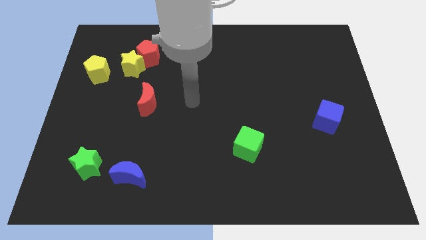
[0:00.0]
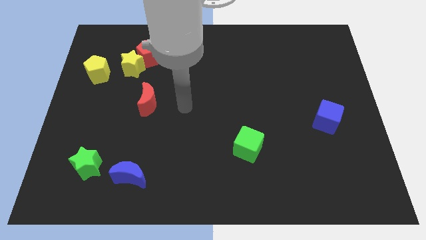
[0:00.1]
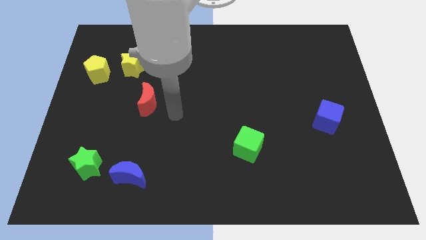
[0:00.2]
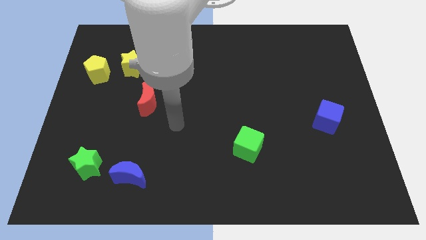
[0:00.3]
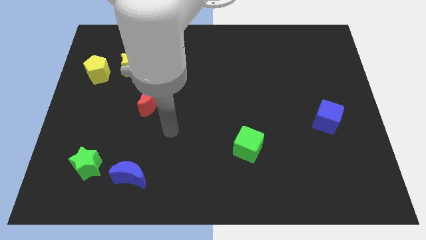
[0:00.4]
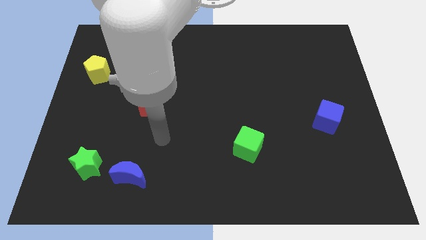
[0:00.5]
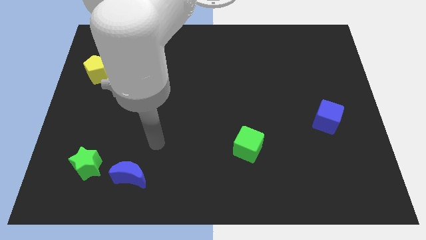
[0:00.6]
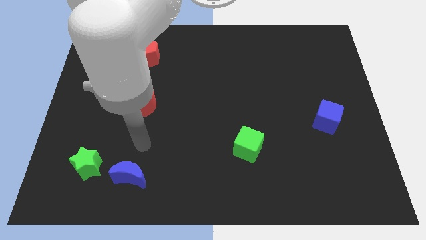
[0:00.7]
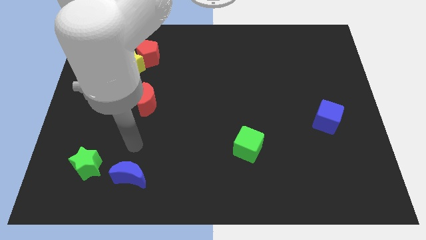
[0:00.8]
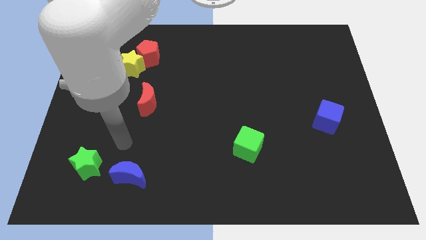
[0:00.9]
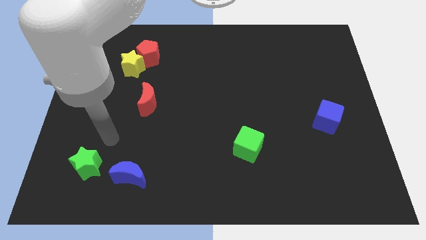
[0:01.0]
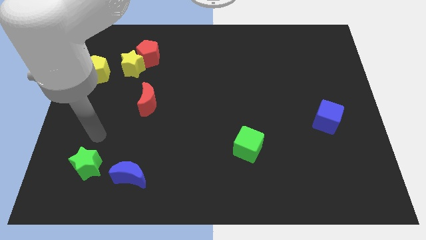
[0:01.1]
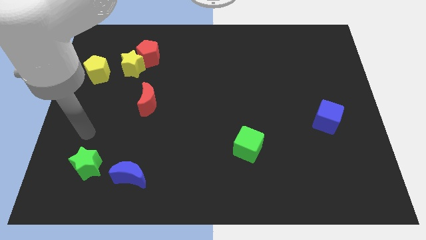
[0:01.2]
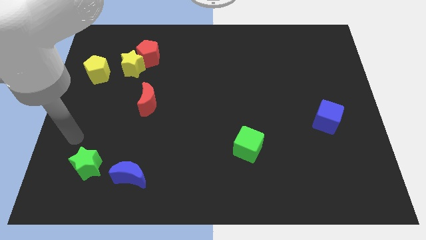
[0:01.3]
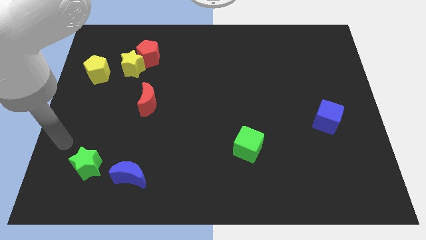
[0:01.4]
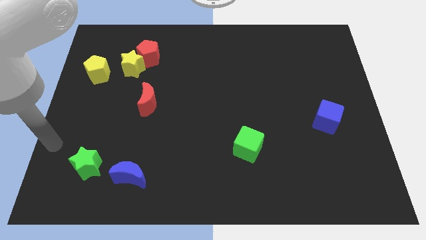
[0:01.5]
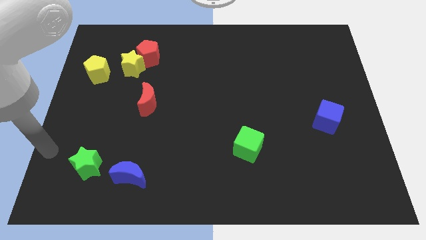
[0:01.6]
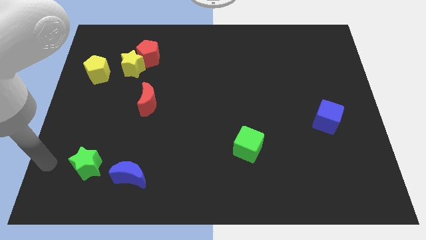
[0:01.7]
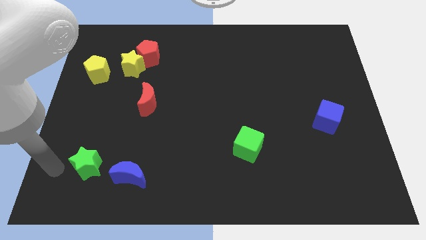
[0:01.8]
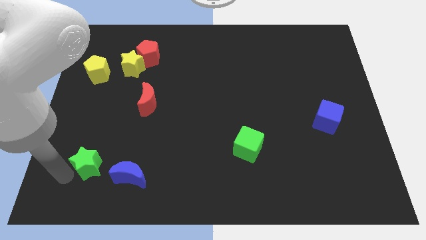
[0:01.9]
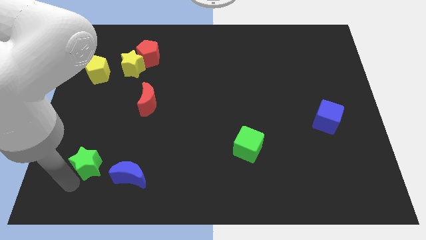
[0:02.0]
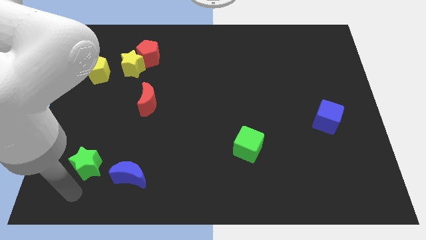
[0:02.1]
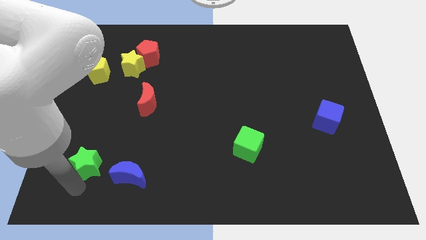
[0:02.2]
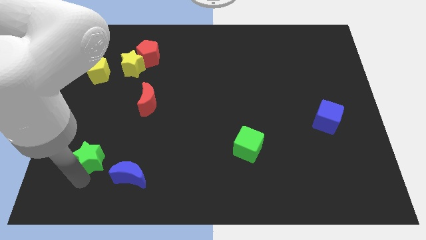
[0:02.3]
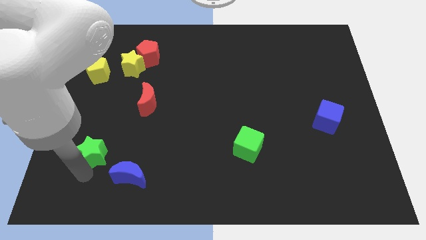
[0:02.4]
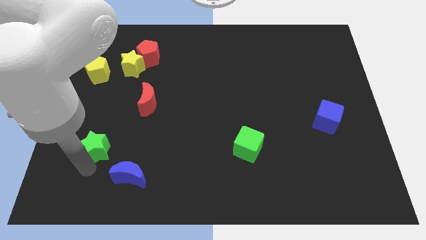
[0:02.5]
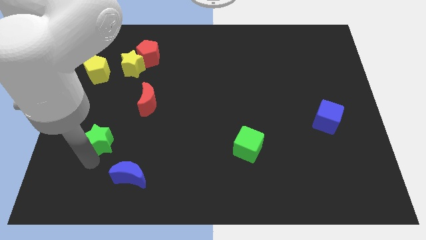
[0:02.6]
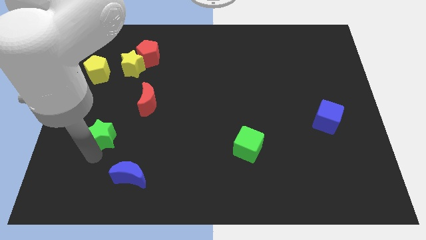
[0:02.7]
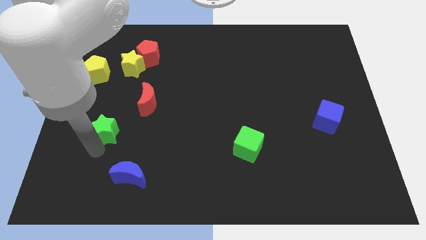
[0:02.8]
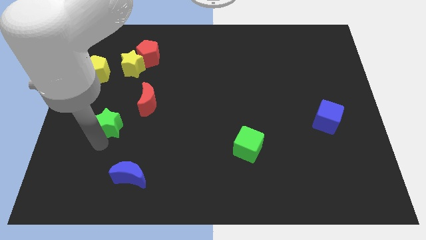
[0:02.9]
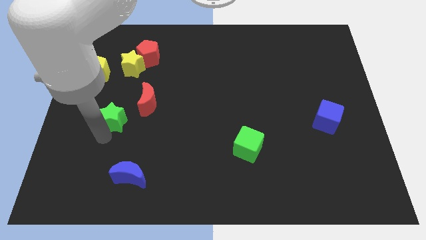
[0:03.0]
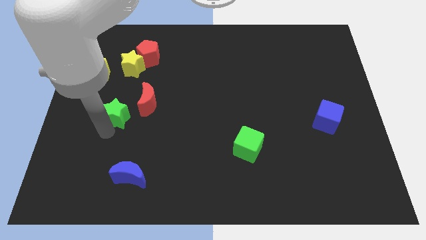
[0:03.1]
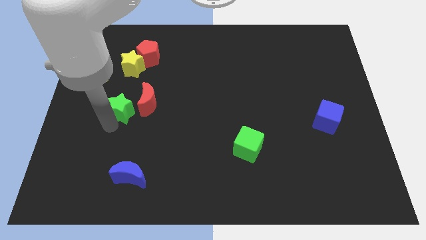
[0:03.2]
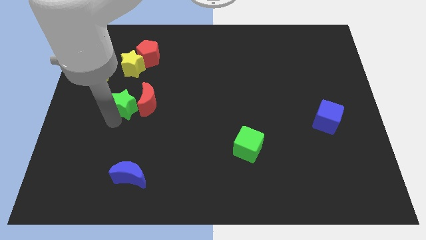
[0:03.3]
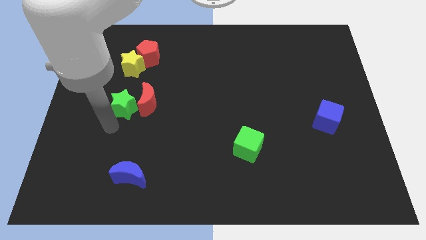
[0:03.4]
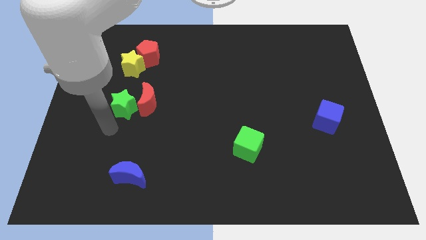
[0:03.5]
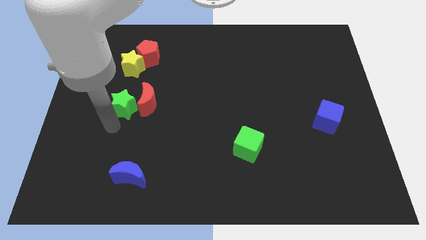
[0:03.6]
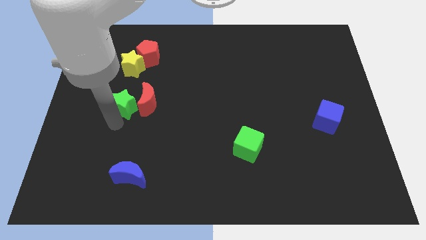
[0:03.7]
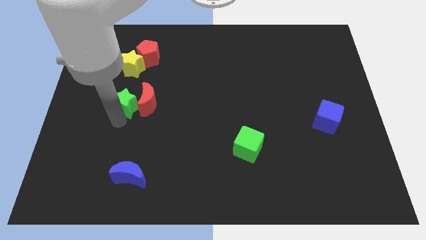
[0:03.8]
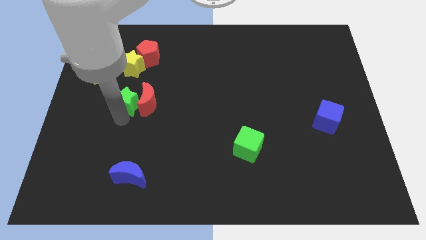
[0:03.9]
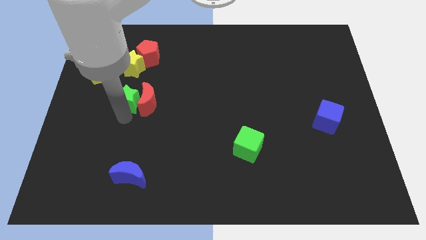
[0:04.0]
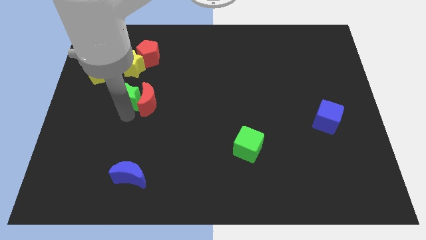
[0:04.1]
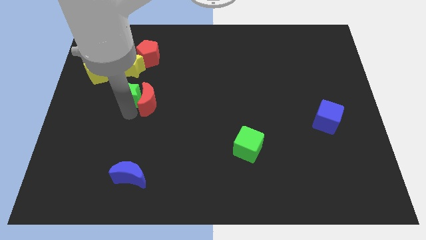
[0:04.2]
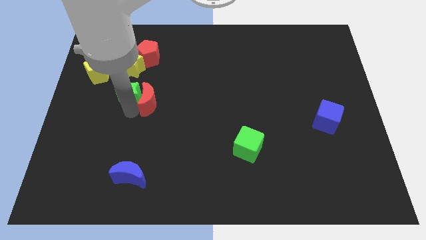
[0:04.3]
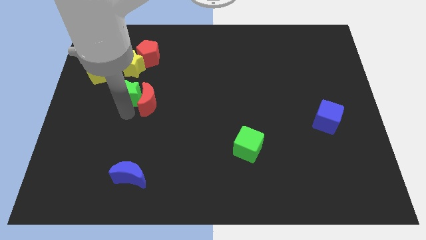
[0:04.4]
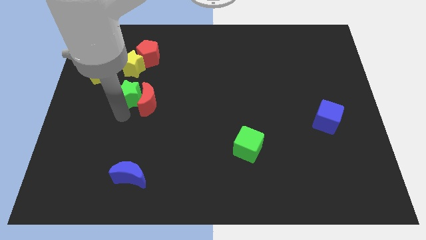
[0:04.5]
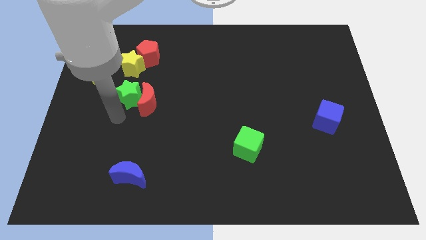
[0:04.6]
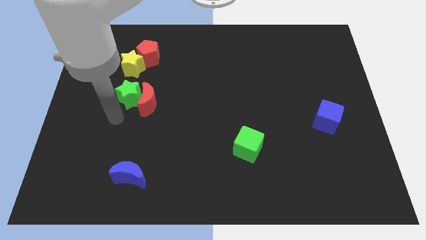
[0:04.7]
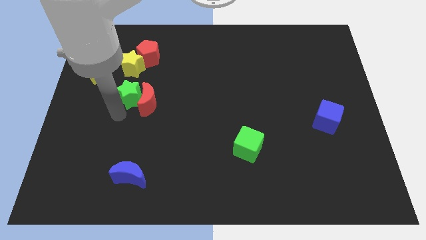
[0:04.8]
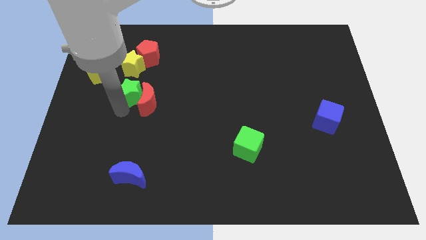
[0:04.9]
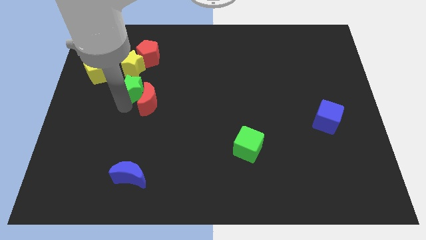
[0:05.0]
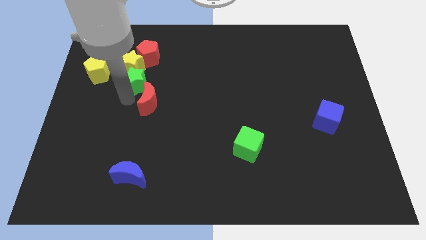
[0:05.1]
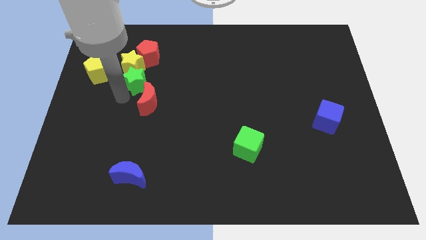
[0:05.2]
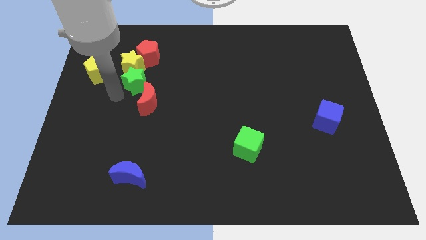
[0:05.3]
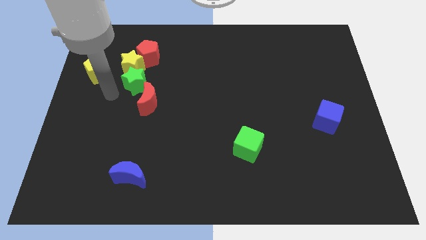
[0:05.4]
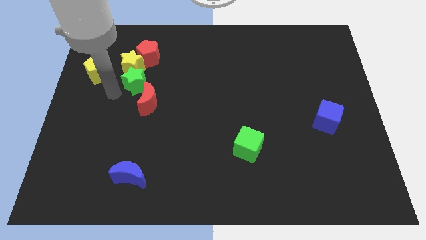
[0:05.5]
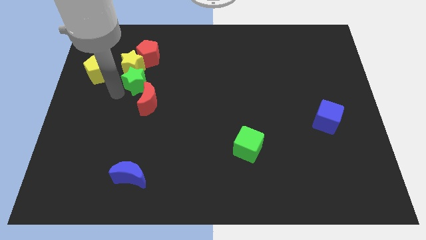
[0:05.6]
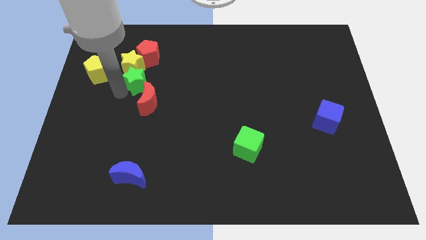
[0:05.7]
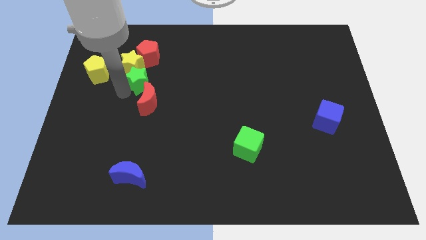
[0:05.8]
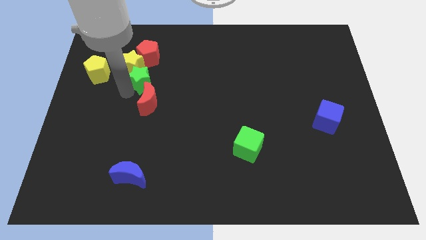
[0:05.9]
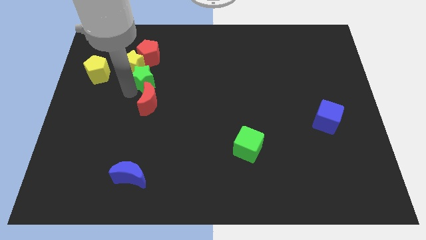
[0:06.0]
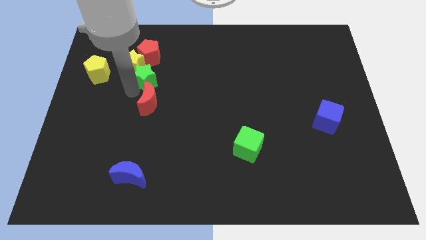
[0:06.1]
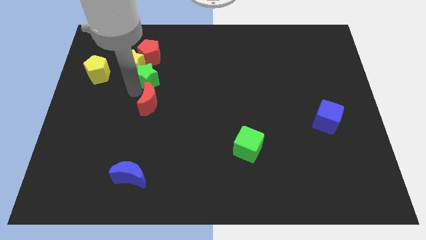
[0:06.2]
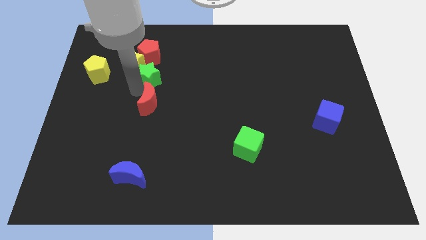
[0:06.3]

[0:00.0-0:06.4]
push the green star right of the yellow star

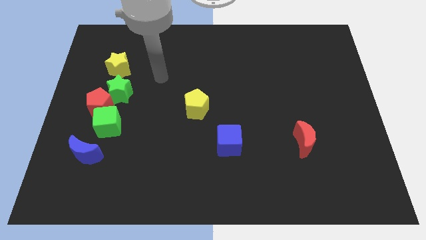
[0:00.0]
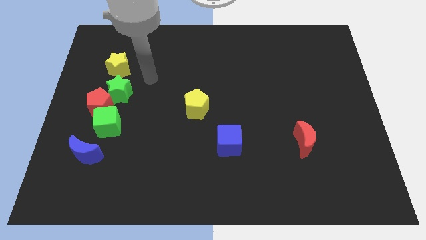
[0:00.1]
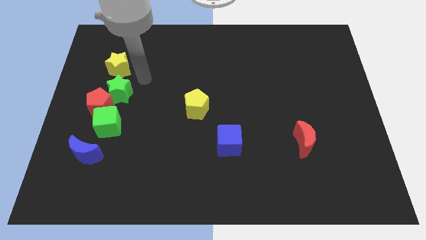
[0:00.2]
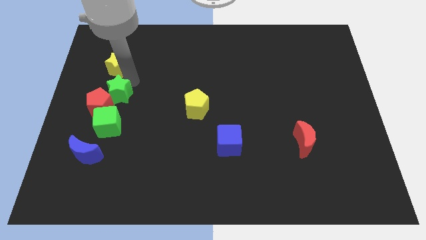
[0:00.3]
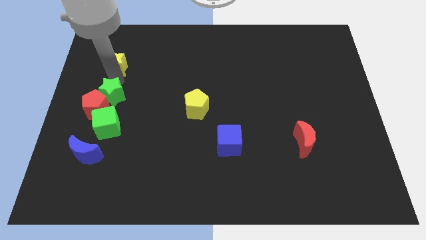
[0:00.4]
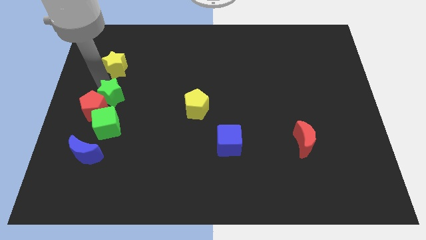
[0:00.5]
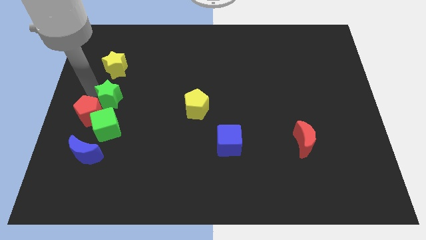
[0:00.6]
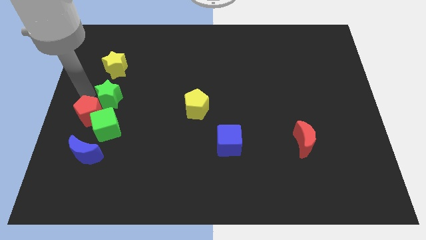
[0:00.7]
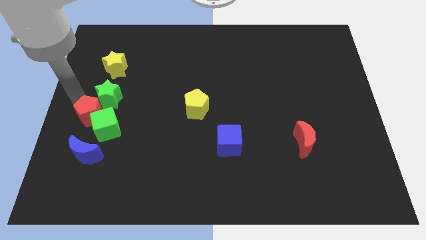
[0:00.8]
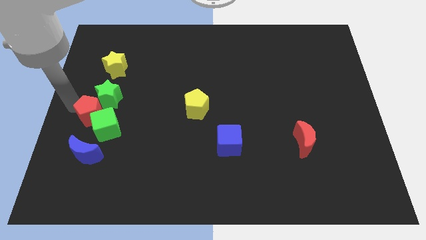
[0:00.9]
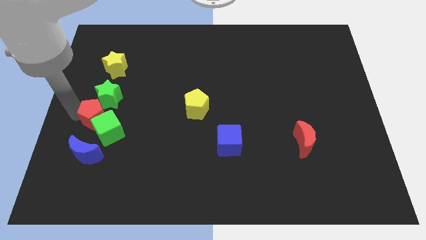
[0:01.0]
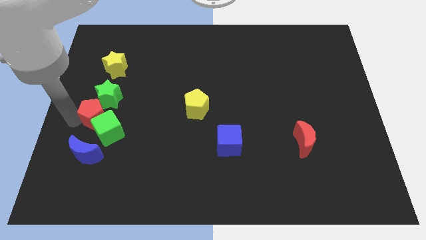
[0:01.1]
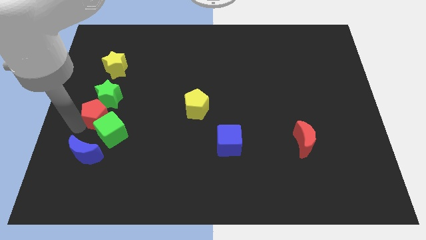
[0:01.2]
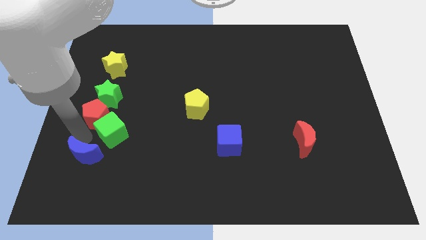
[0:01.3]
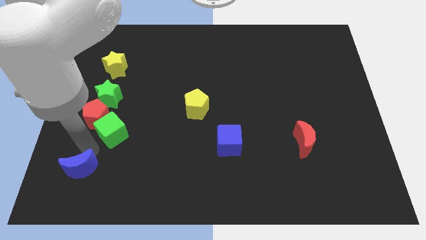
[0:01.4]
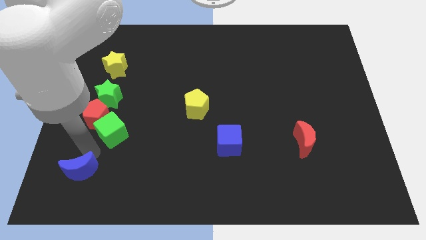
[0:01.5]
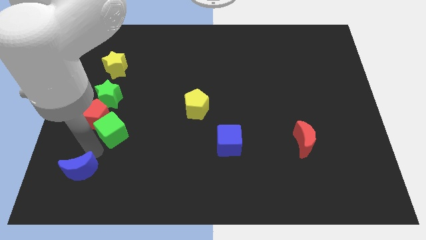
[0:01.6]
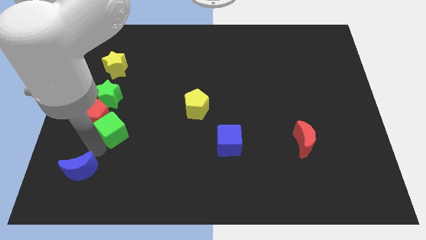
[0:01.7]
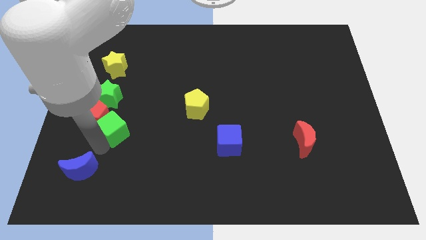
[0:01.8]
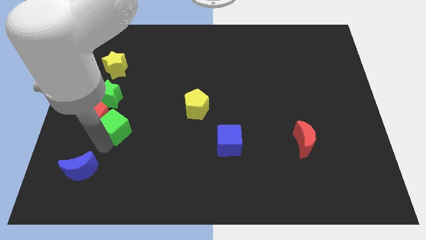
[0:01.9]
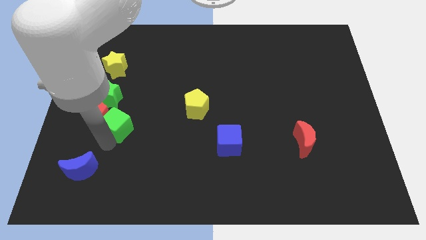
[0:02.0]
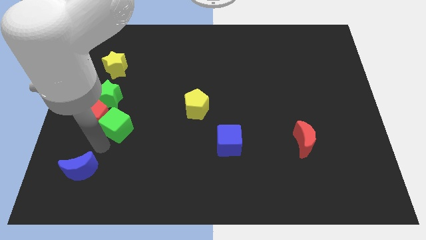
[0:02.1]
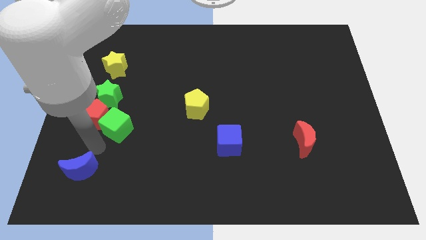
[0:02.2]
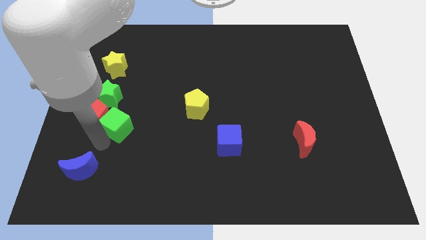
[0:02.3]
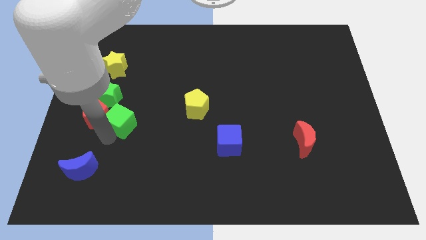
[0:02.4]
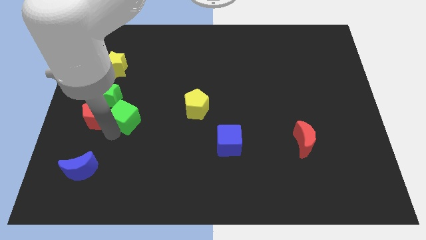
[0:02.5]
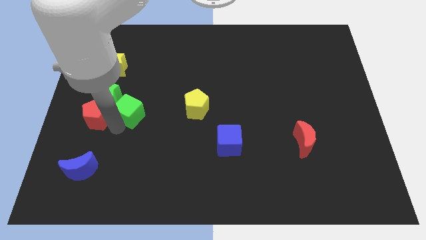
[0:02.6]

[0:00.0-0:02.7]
push the green cube to the left of the yellow pentagon
